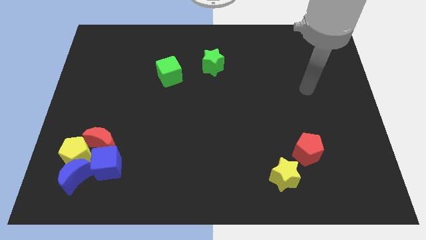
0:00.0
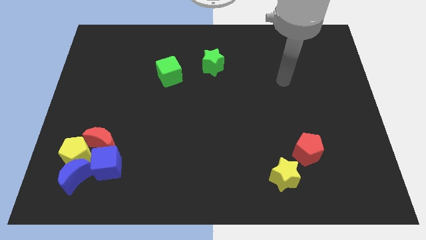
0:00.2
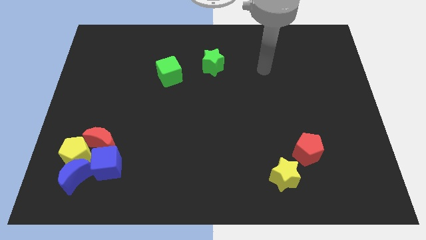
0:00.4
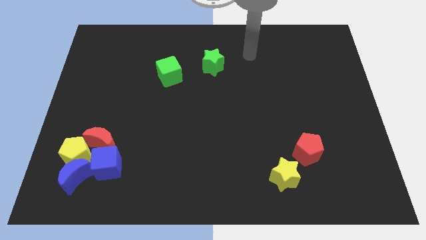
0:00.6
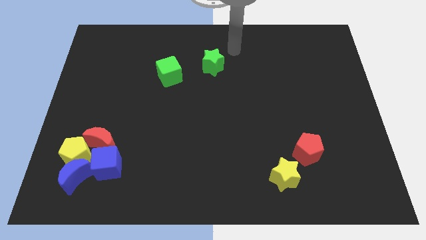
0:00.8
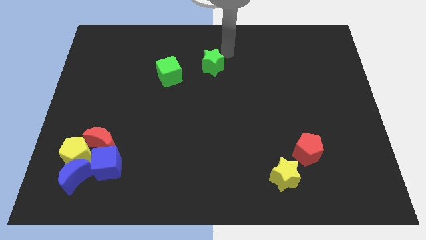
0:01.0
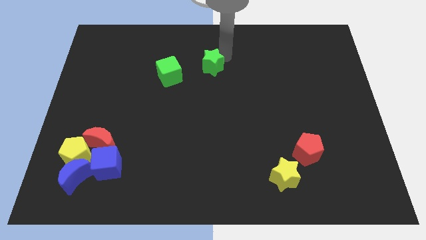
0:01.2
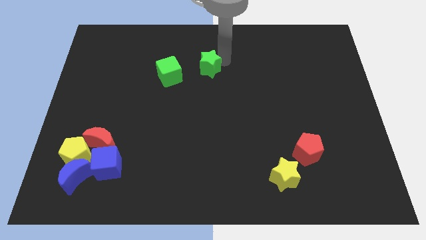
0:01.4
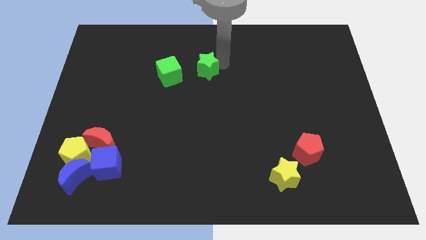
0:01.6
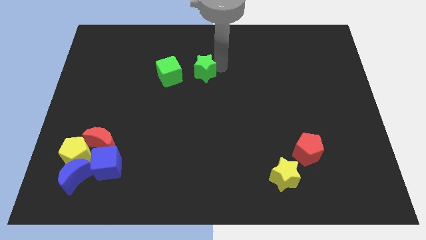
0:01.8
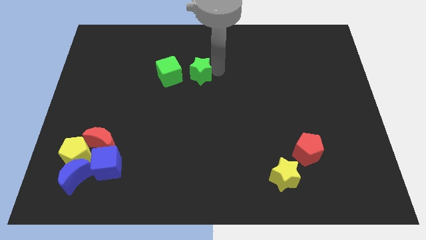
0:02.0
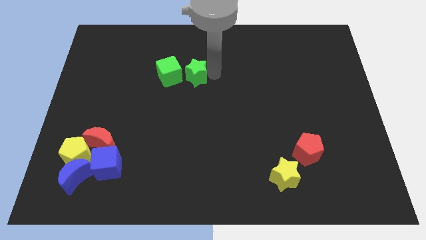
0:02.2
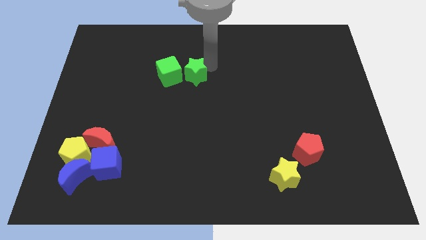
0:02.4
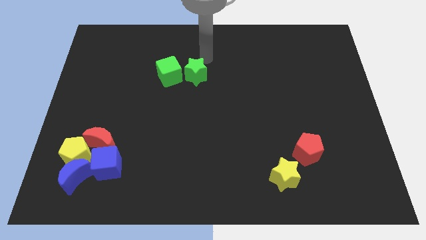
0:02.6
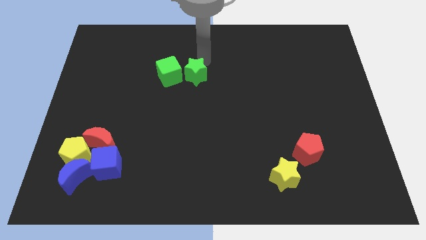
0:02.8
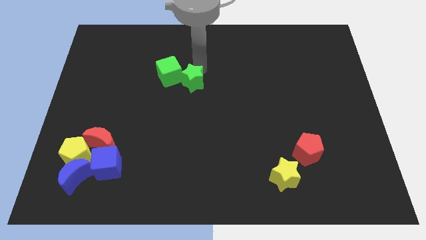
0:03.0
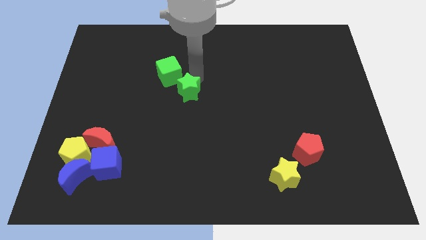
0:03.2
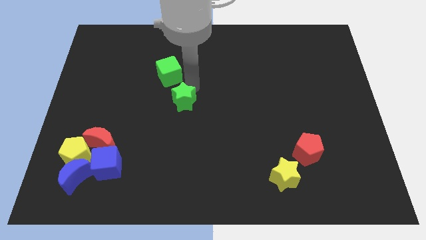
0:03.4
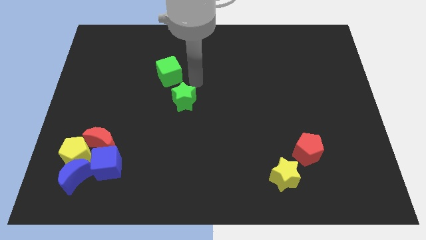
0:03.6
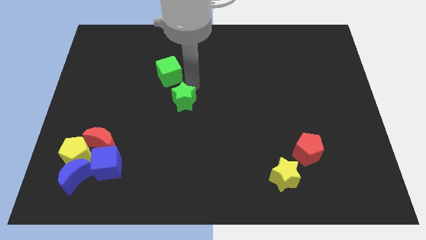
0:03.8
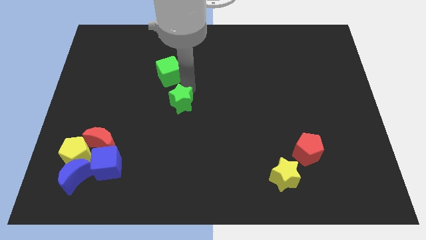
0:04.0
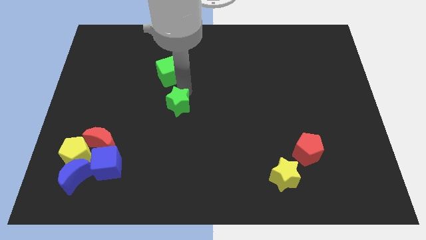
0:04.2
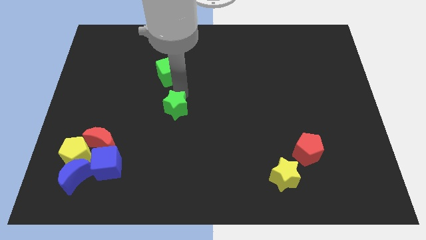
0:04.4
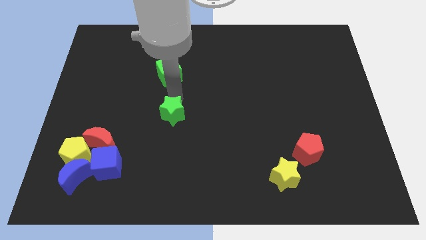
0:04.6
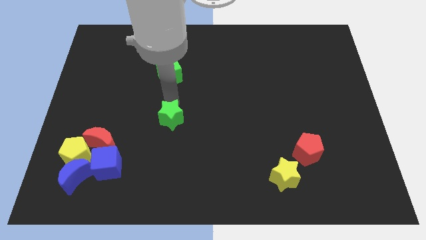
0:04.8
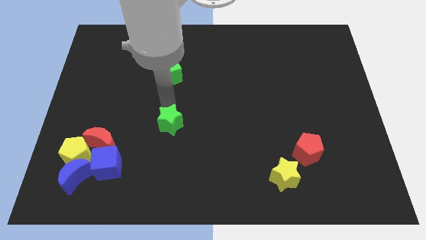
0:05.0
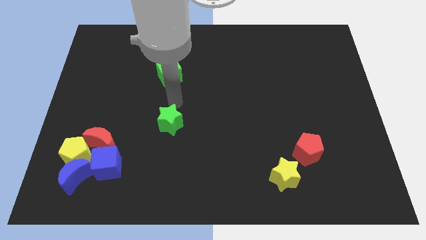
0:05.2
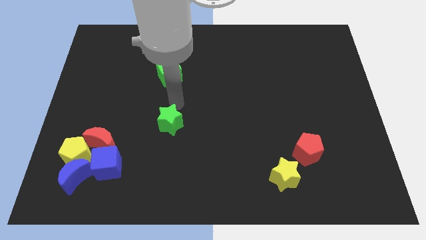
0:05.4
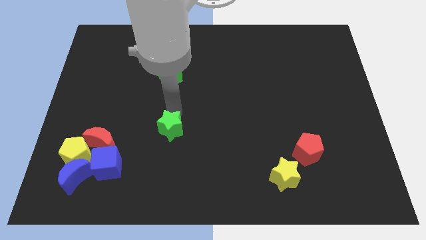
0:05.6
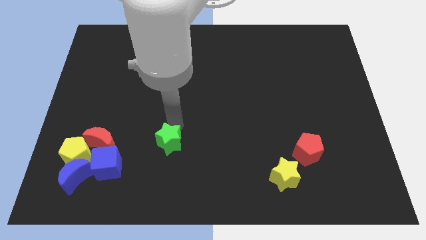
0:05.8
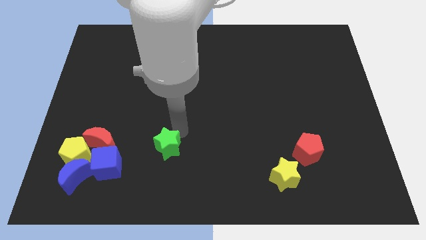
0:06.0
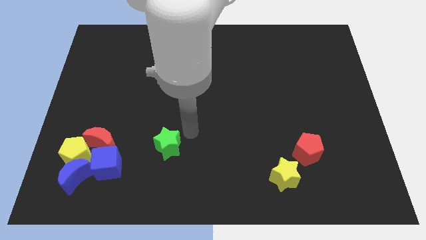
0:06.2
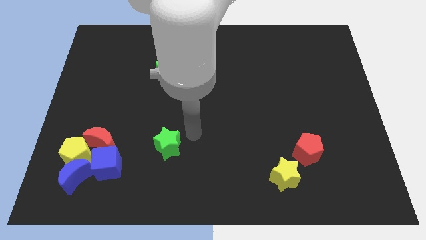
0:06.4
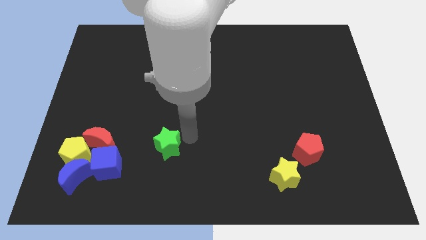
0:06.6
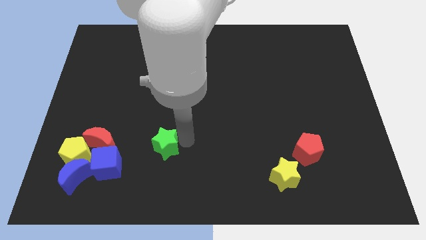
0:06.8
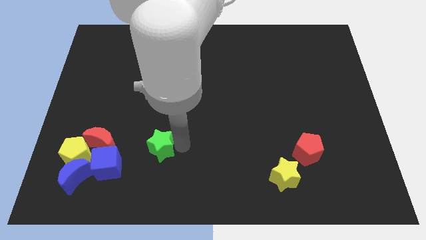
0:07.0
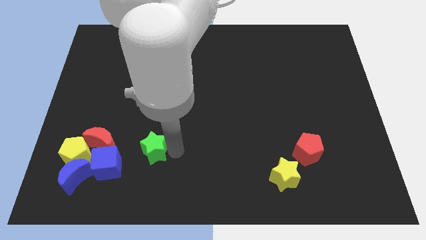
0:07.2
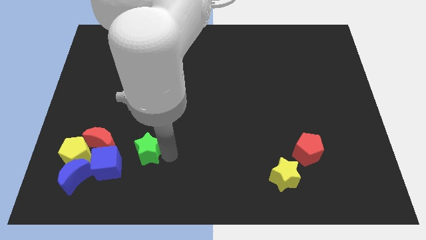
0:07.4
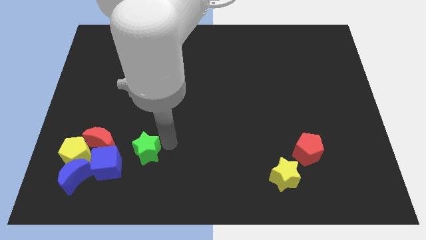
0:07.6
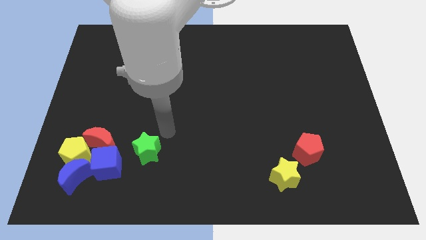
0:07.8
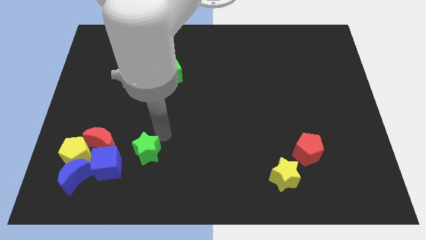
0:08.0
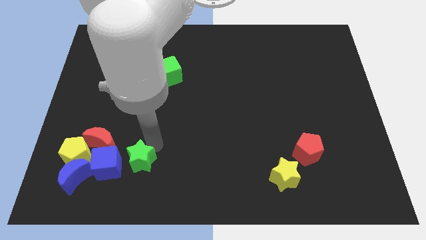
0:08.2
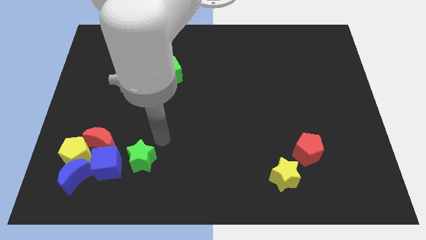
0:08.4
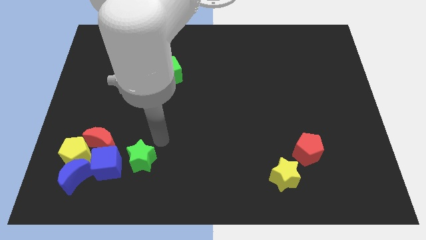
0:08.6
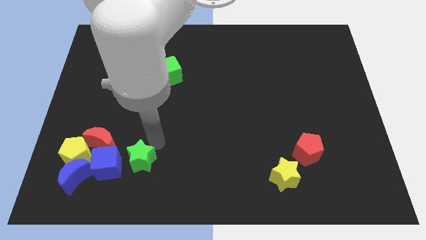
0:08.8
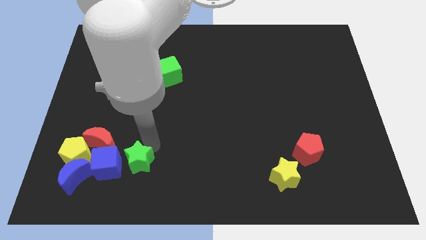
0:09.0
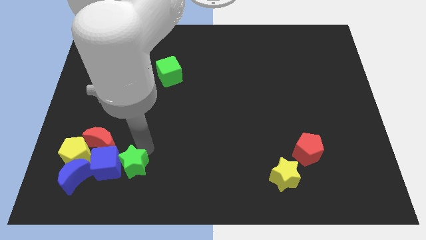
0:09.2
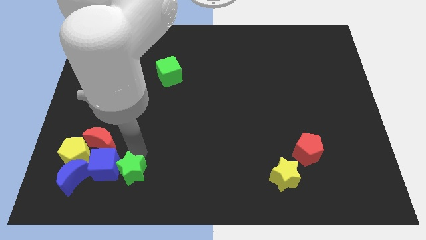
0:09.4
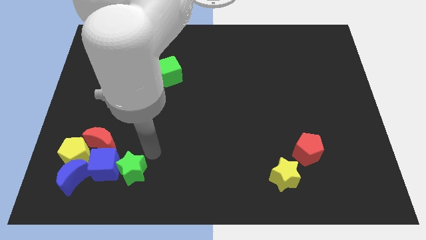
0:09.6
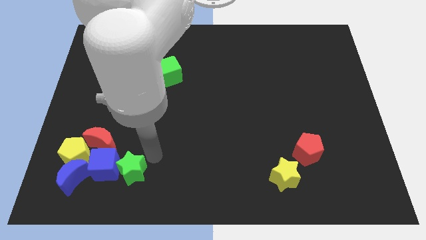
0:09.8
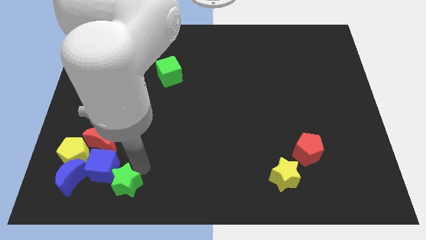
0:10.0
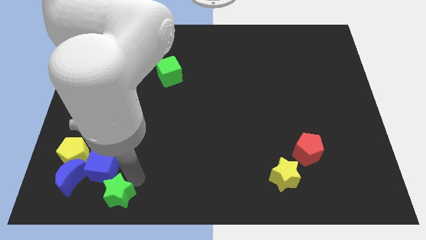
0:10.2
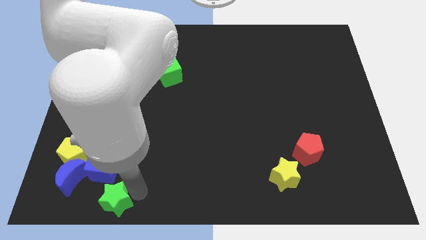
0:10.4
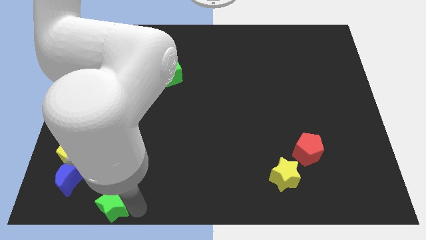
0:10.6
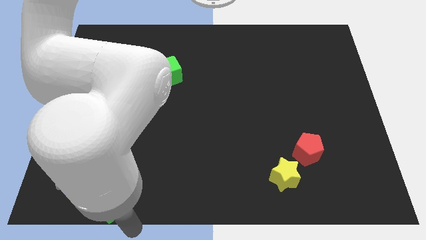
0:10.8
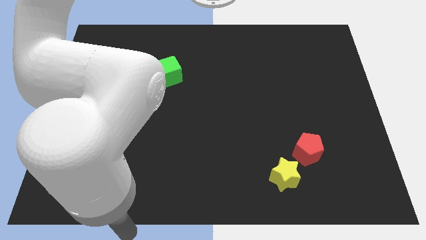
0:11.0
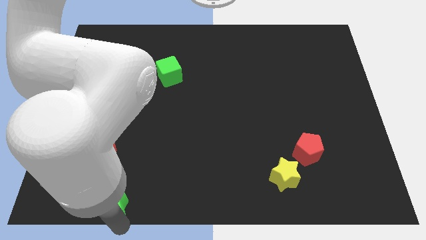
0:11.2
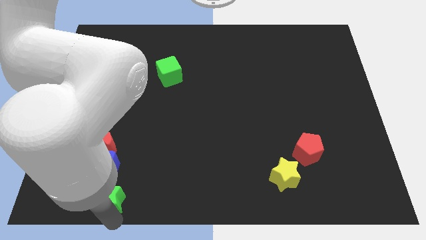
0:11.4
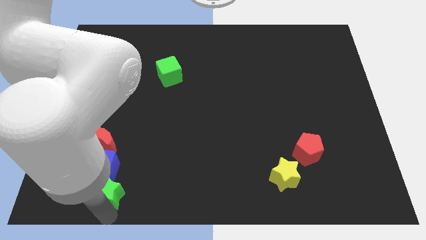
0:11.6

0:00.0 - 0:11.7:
move the green star to the bottom right side of the yellow pentagon

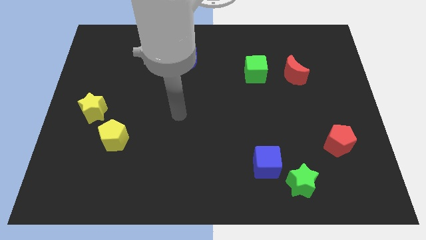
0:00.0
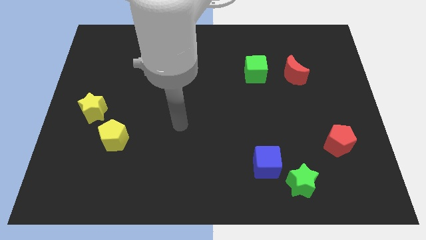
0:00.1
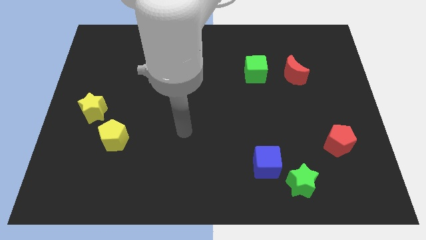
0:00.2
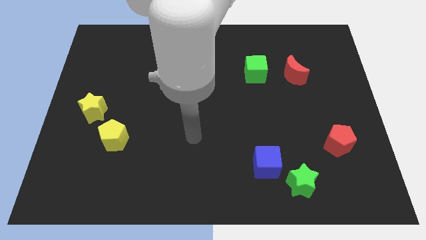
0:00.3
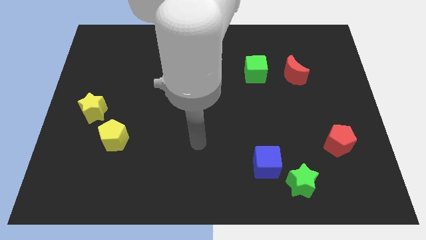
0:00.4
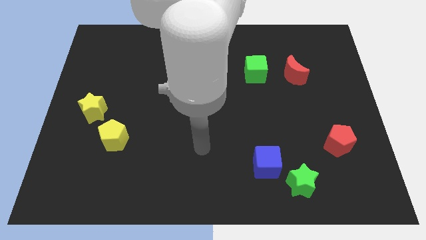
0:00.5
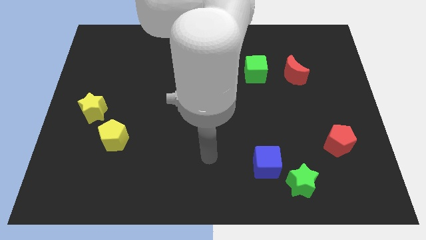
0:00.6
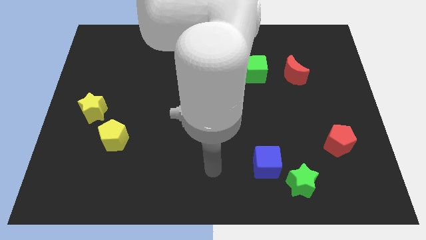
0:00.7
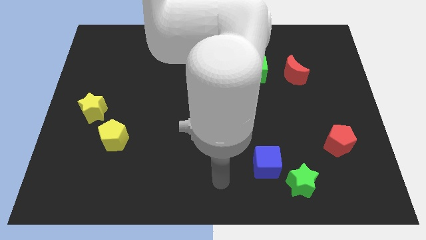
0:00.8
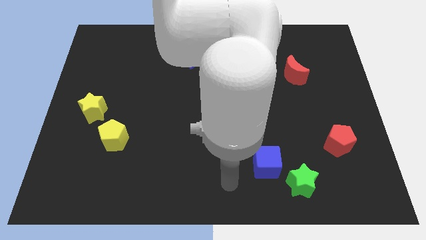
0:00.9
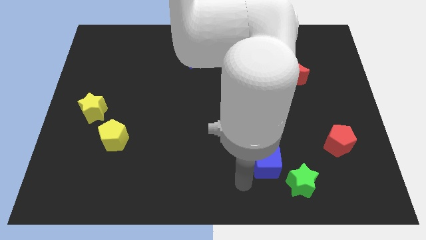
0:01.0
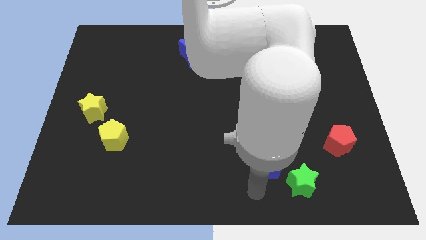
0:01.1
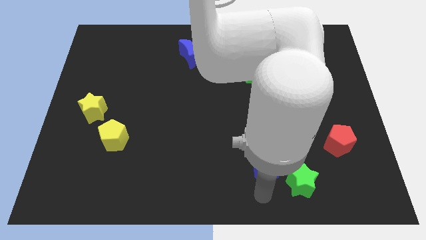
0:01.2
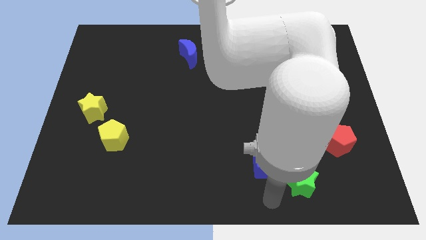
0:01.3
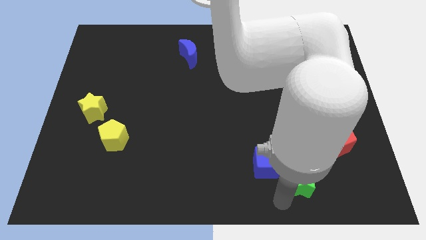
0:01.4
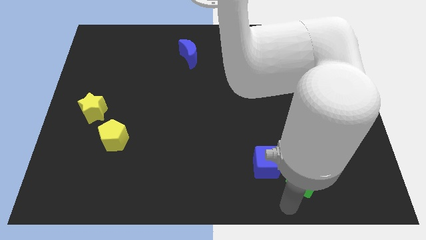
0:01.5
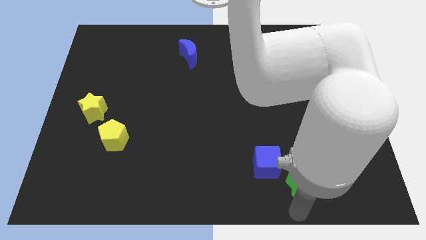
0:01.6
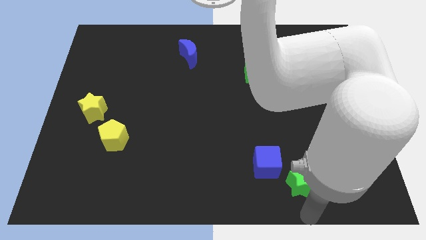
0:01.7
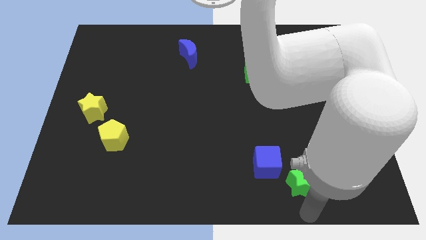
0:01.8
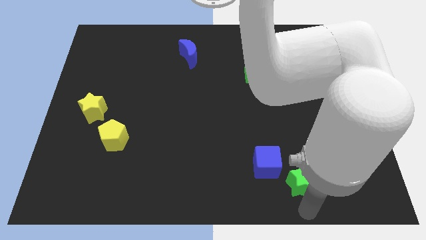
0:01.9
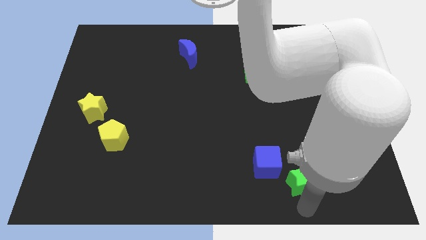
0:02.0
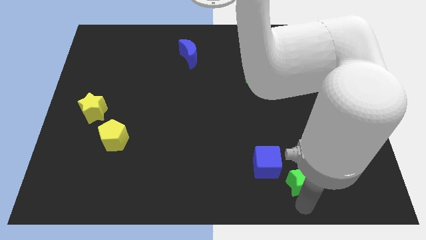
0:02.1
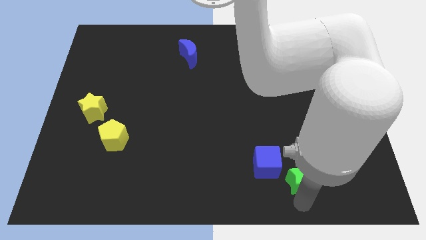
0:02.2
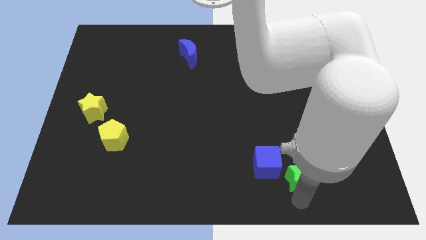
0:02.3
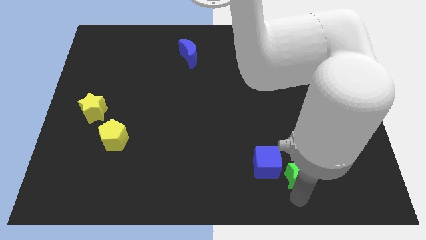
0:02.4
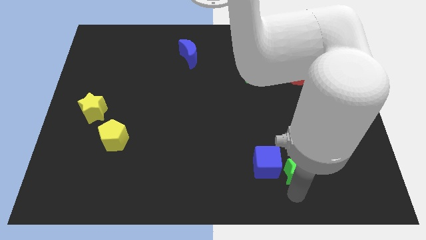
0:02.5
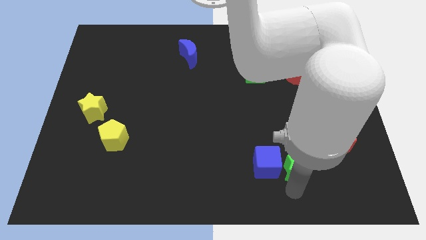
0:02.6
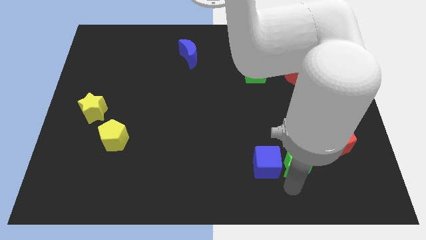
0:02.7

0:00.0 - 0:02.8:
slide the green star diagonally up and to the right of the blue cube
